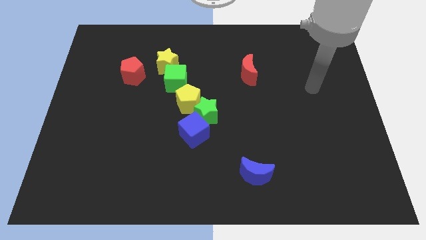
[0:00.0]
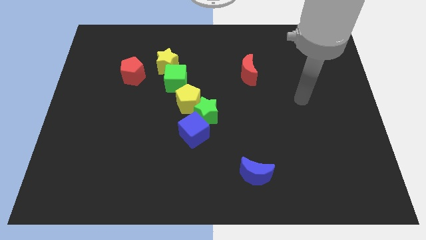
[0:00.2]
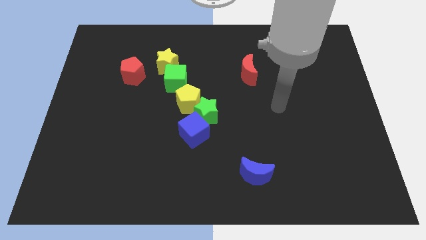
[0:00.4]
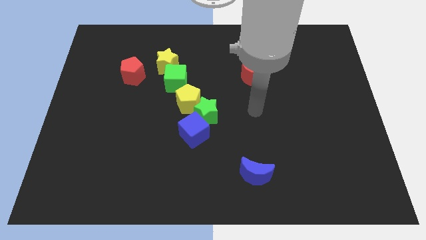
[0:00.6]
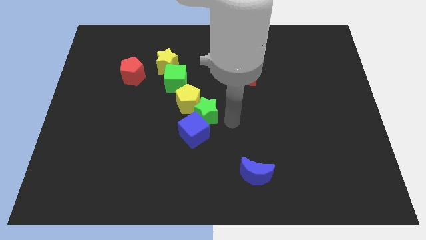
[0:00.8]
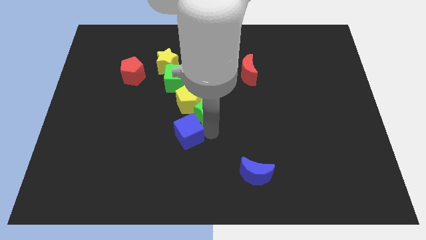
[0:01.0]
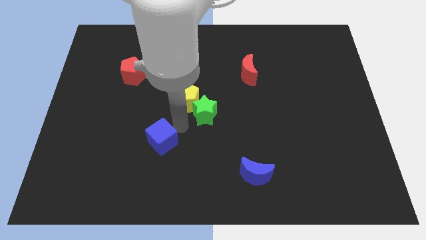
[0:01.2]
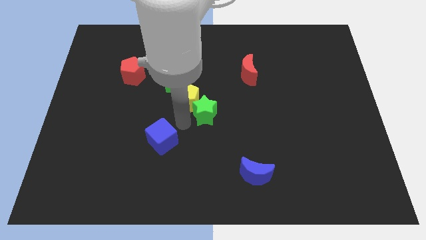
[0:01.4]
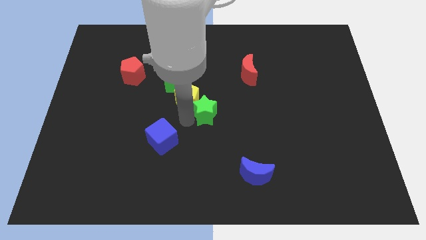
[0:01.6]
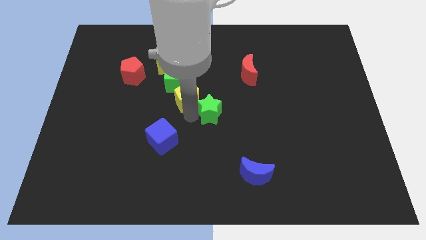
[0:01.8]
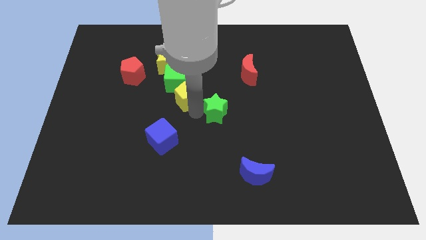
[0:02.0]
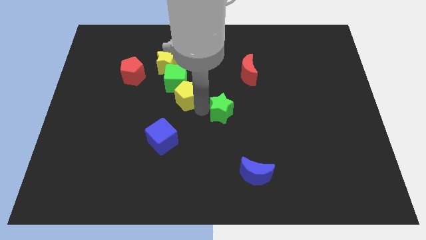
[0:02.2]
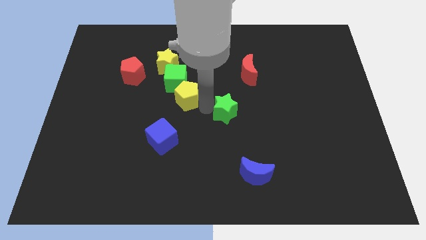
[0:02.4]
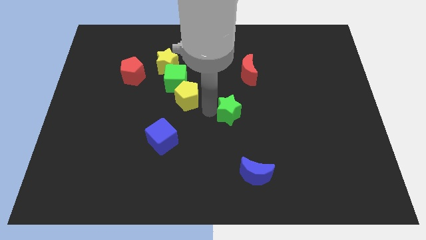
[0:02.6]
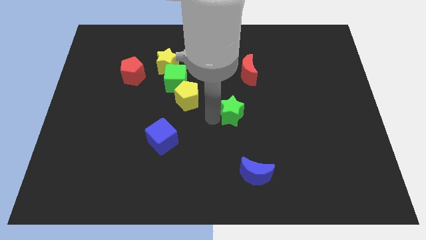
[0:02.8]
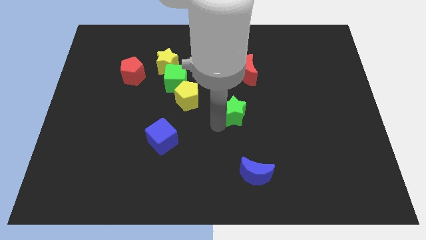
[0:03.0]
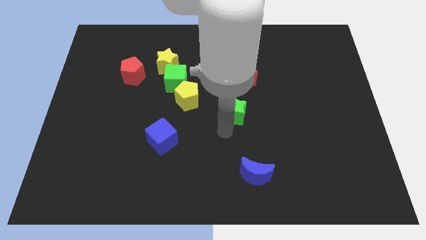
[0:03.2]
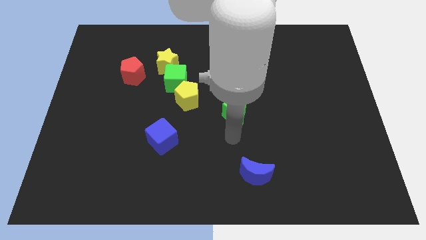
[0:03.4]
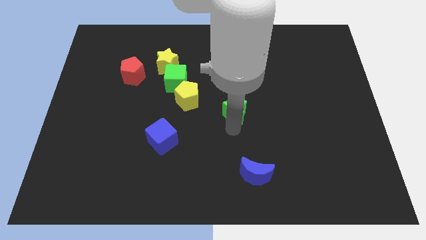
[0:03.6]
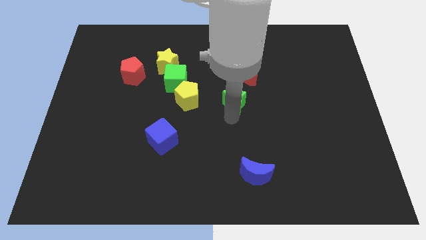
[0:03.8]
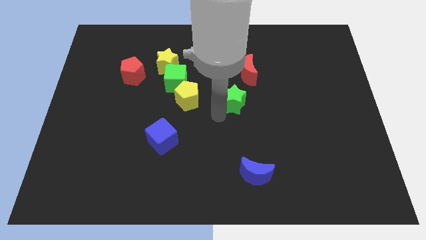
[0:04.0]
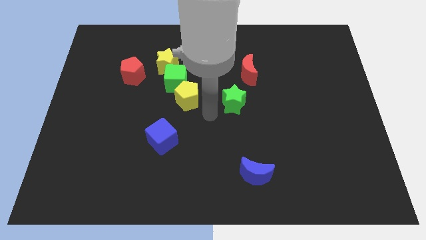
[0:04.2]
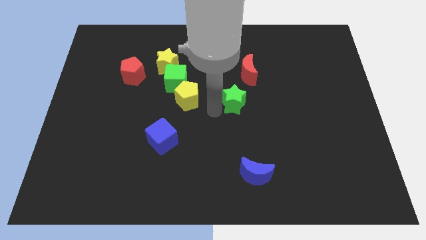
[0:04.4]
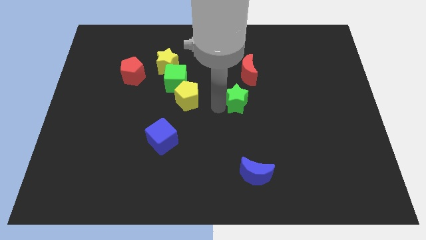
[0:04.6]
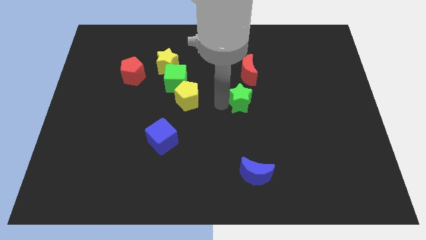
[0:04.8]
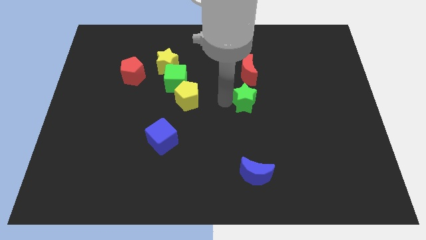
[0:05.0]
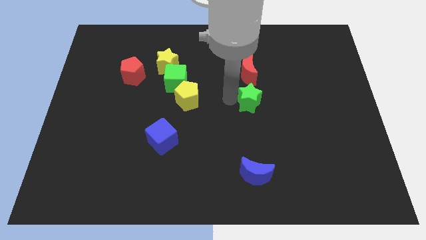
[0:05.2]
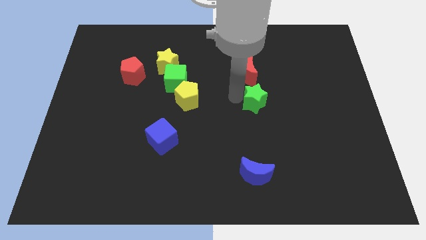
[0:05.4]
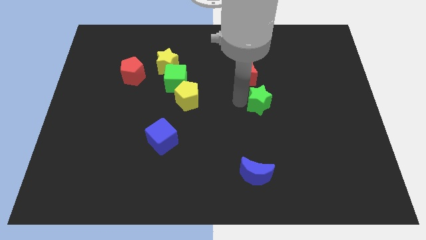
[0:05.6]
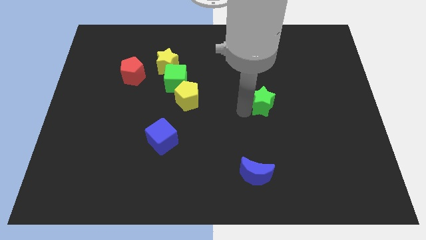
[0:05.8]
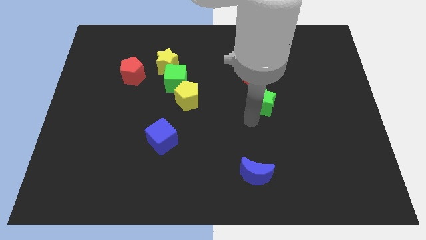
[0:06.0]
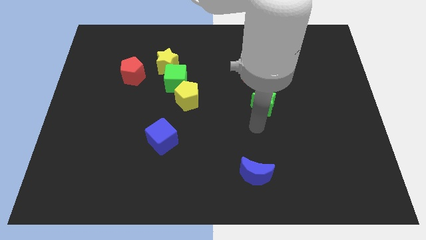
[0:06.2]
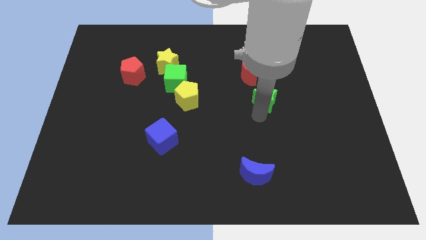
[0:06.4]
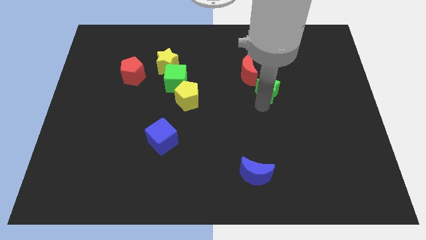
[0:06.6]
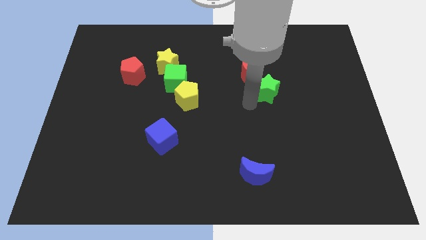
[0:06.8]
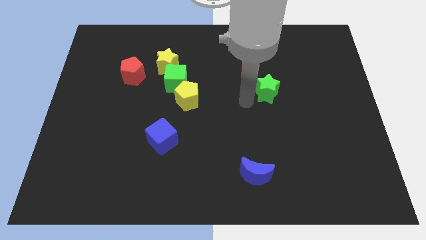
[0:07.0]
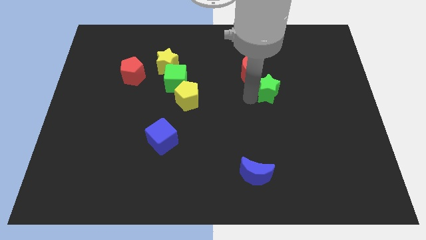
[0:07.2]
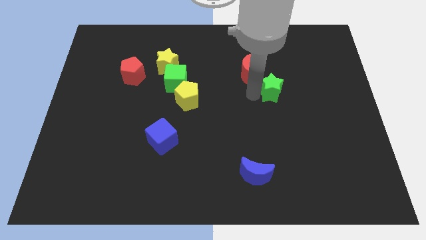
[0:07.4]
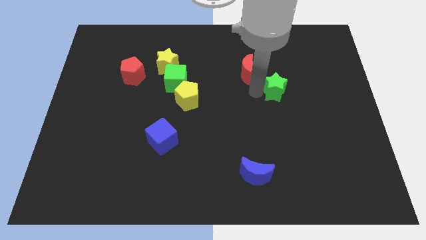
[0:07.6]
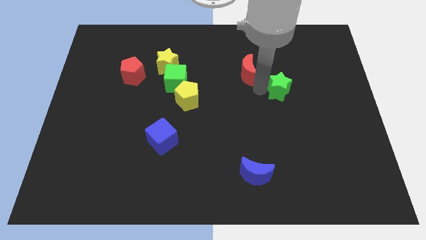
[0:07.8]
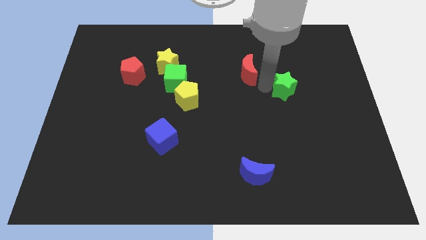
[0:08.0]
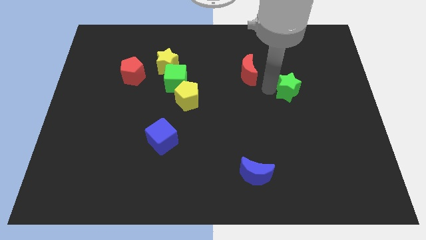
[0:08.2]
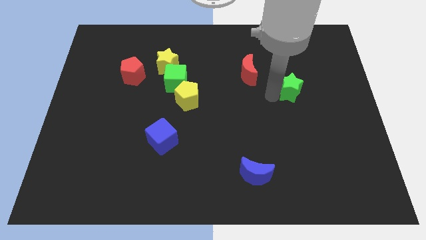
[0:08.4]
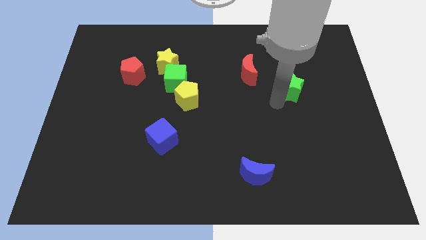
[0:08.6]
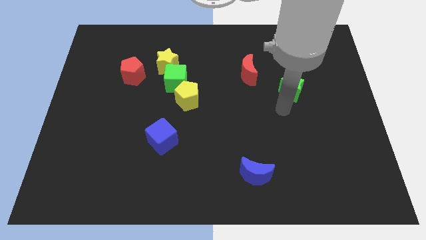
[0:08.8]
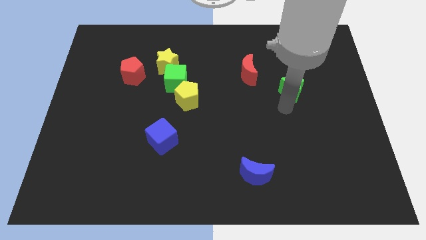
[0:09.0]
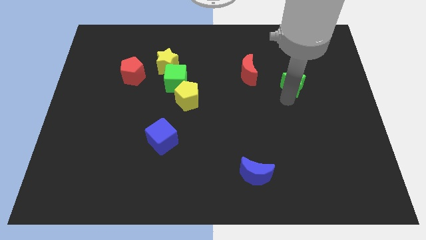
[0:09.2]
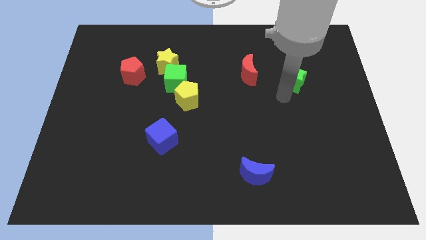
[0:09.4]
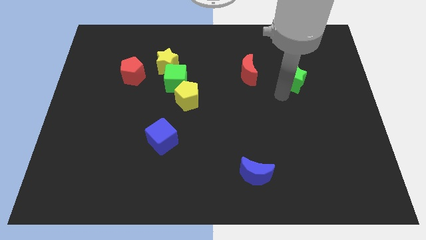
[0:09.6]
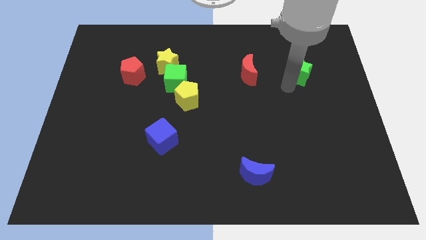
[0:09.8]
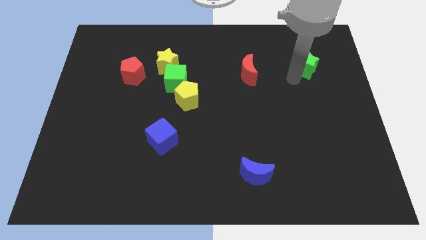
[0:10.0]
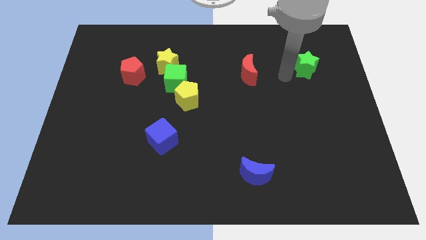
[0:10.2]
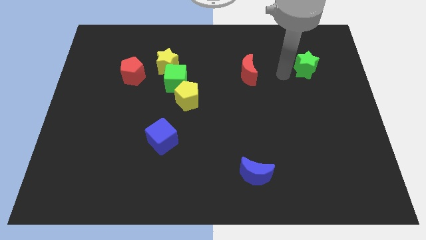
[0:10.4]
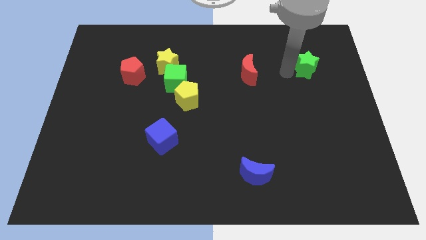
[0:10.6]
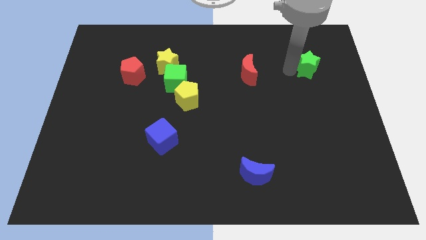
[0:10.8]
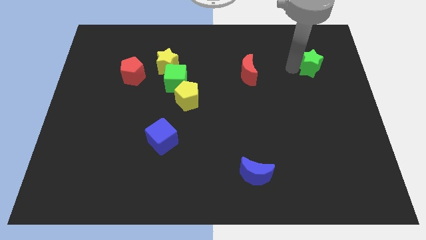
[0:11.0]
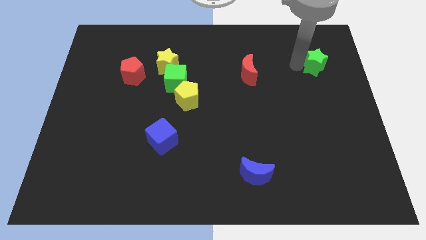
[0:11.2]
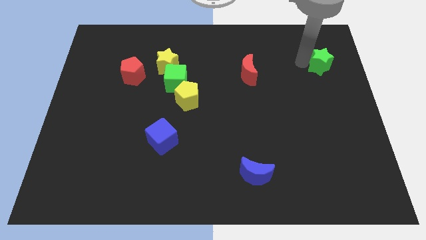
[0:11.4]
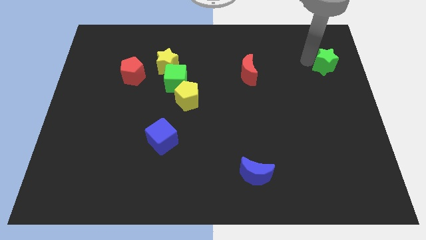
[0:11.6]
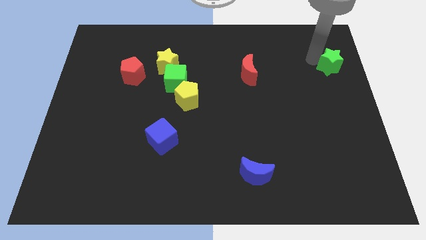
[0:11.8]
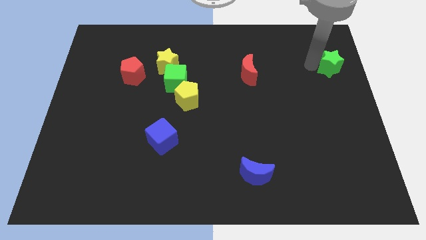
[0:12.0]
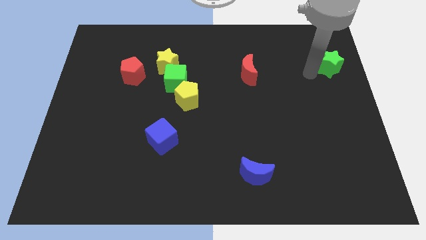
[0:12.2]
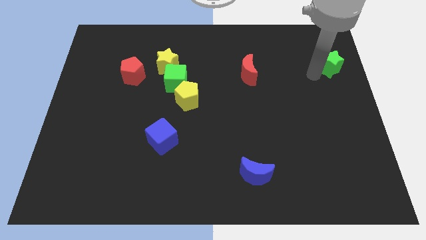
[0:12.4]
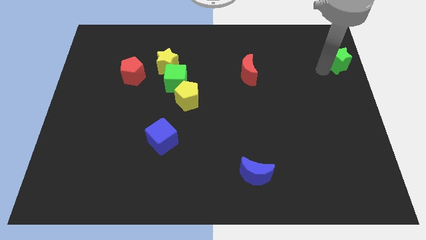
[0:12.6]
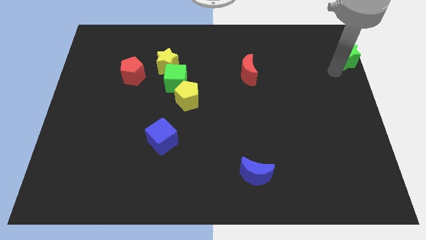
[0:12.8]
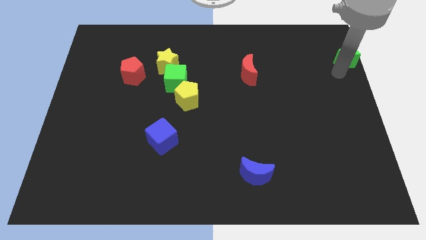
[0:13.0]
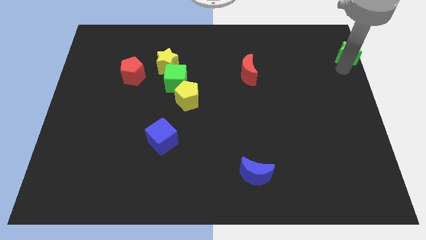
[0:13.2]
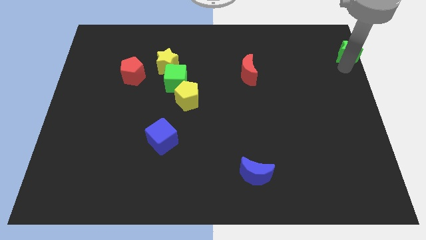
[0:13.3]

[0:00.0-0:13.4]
push the green star to the top right of the board
